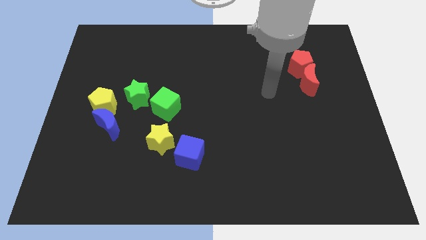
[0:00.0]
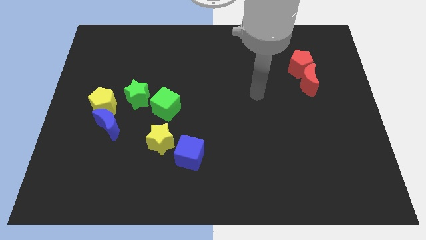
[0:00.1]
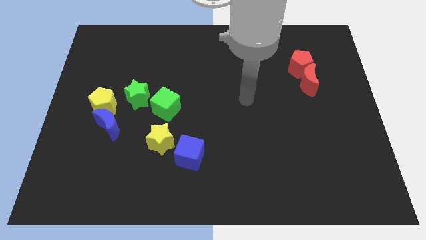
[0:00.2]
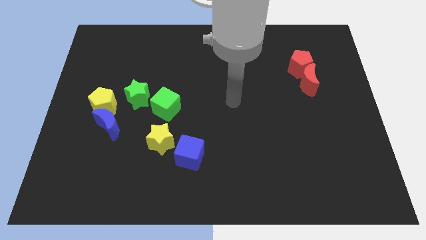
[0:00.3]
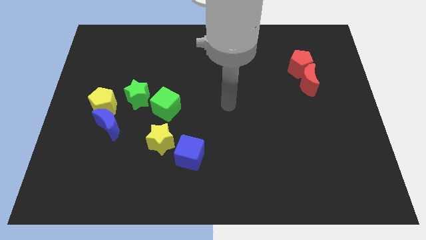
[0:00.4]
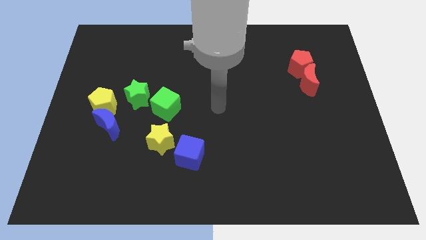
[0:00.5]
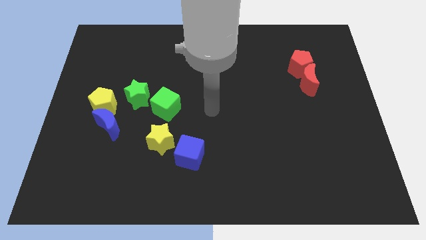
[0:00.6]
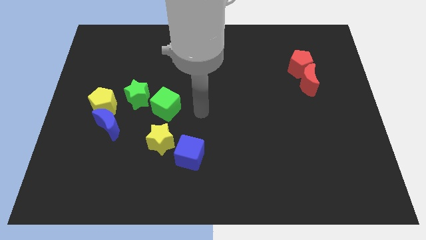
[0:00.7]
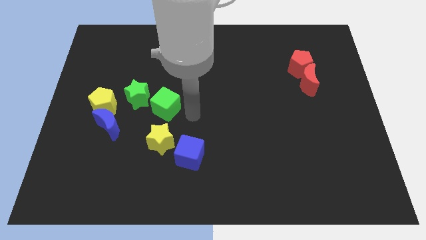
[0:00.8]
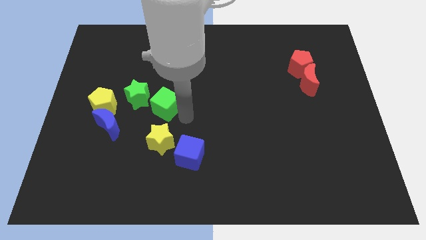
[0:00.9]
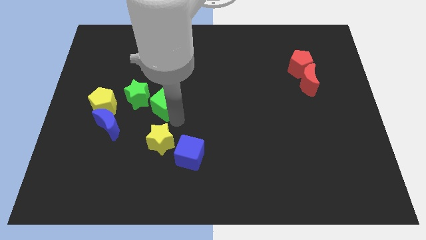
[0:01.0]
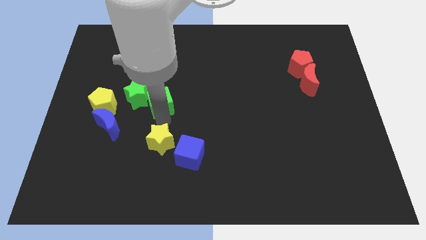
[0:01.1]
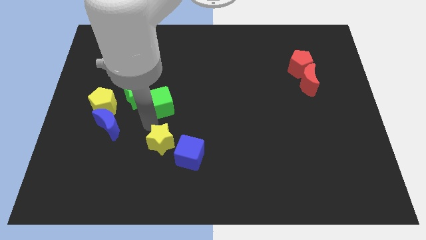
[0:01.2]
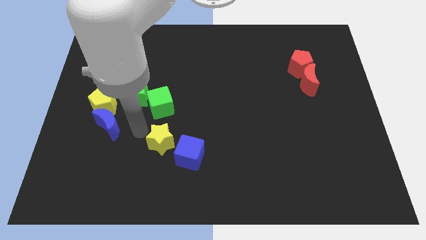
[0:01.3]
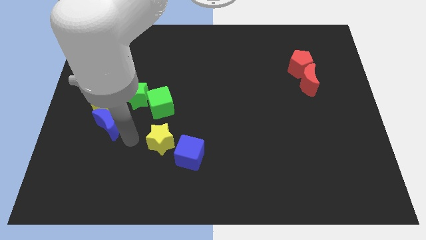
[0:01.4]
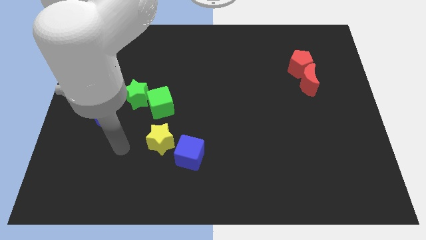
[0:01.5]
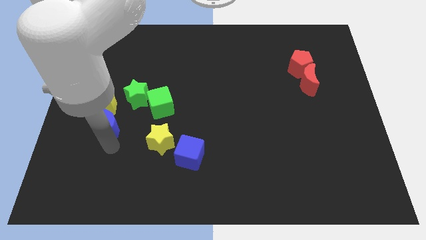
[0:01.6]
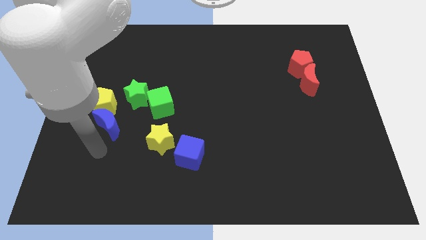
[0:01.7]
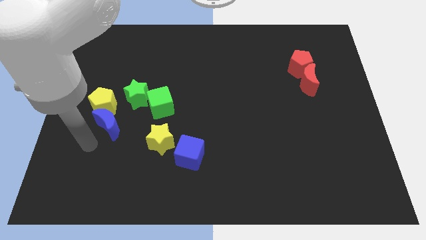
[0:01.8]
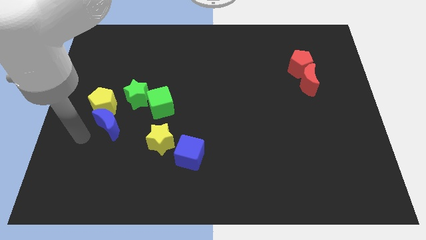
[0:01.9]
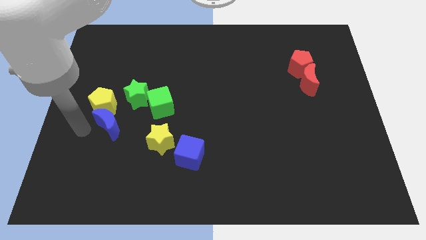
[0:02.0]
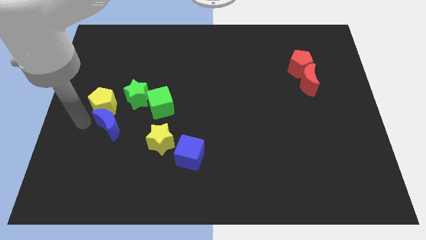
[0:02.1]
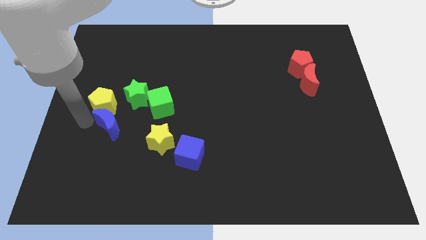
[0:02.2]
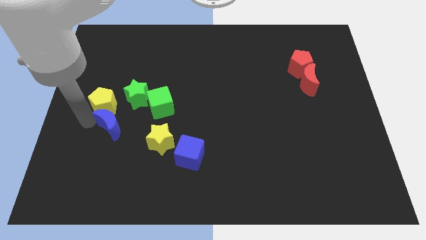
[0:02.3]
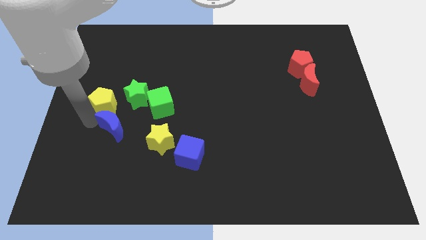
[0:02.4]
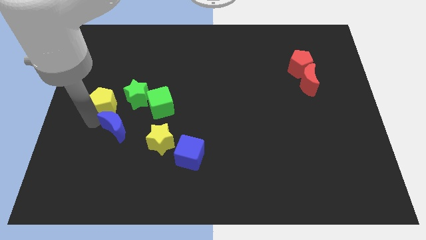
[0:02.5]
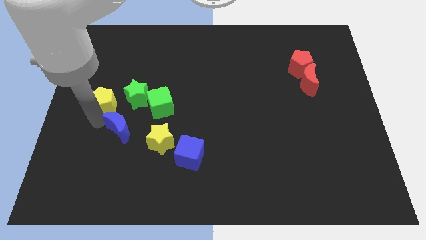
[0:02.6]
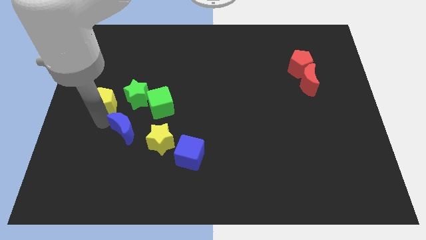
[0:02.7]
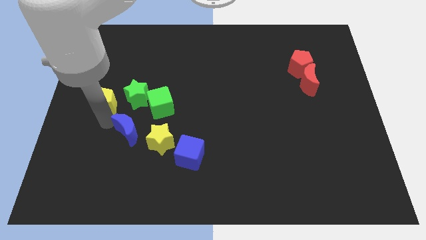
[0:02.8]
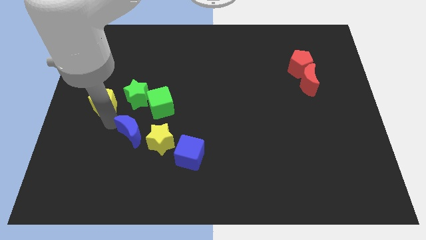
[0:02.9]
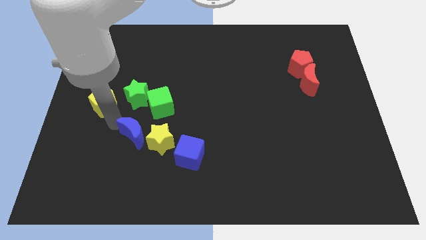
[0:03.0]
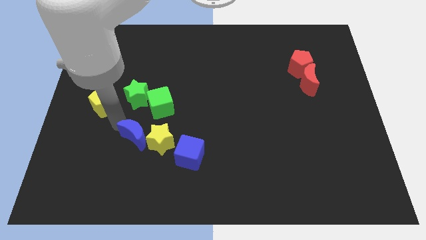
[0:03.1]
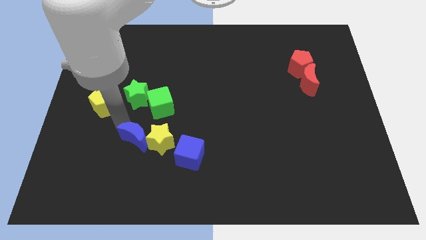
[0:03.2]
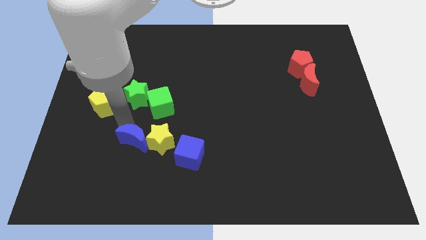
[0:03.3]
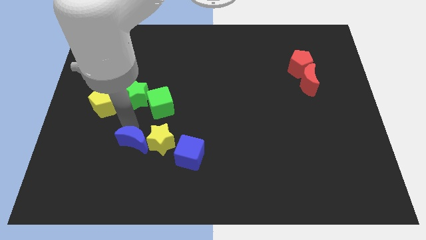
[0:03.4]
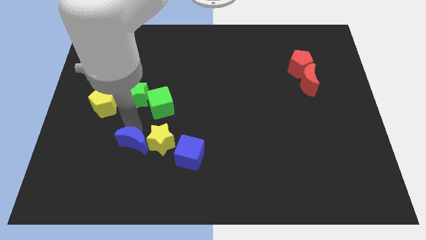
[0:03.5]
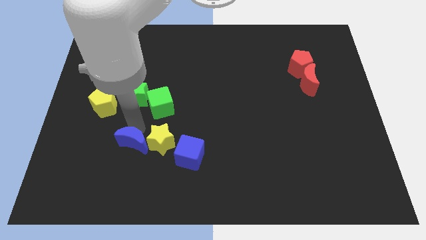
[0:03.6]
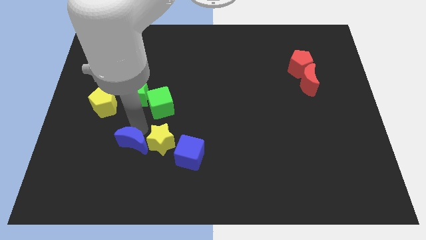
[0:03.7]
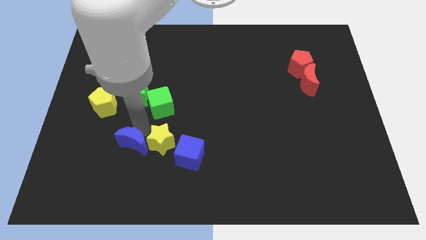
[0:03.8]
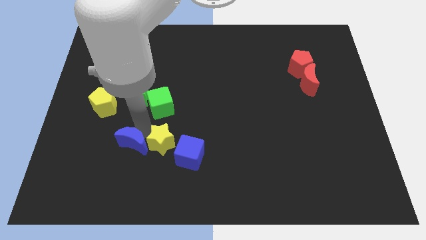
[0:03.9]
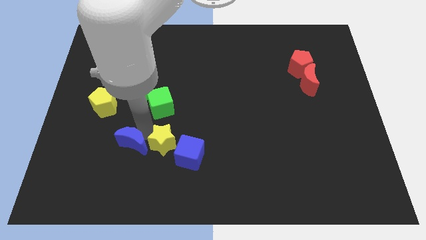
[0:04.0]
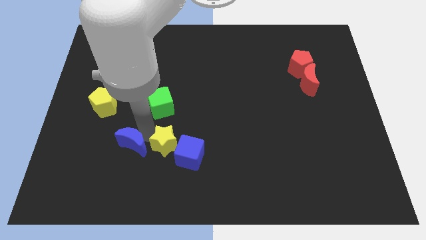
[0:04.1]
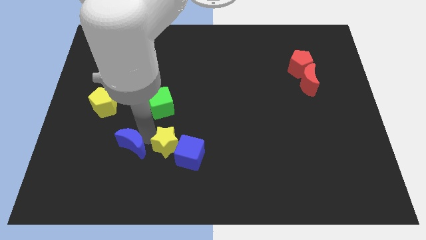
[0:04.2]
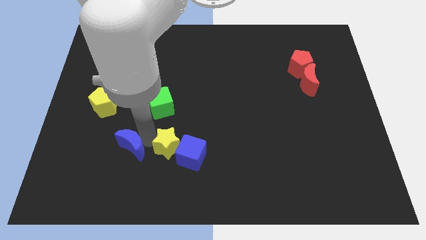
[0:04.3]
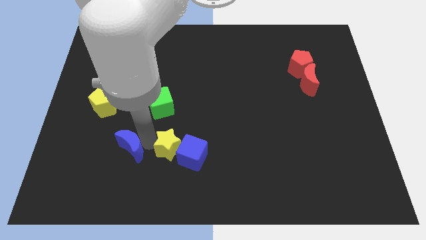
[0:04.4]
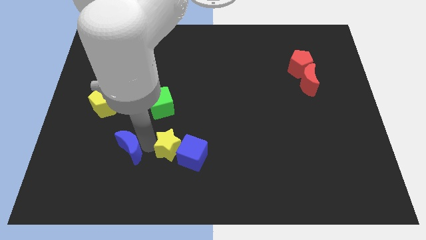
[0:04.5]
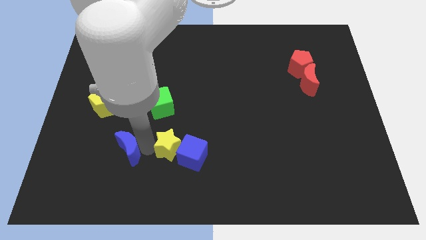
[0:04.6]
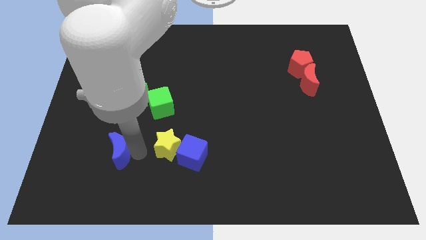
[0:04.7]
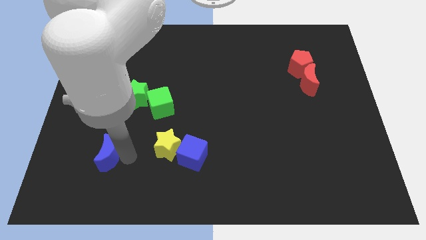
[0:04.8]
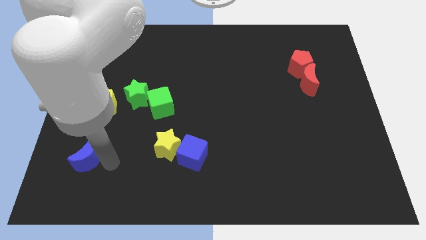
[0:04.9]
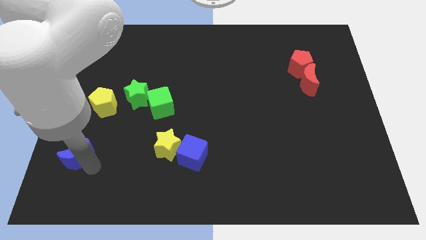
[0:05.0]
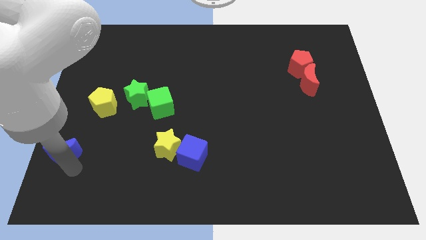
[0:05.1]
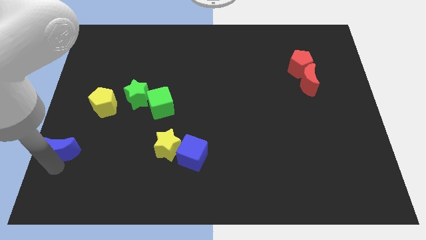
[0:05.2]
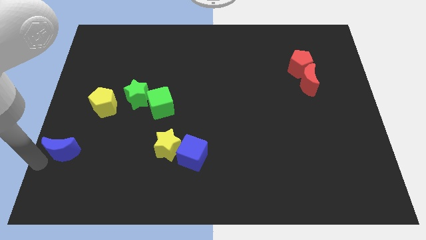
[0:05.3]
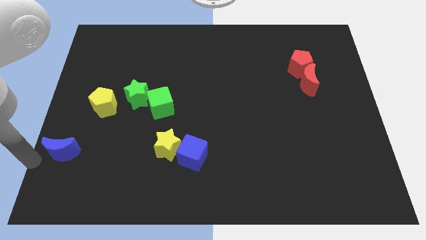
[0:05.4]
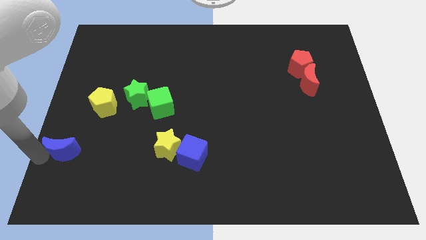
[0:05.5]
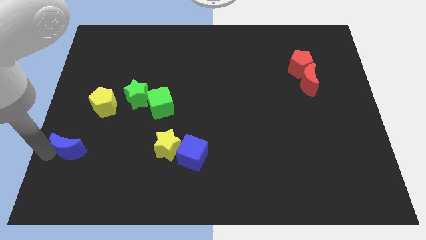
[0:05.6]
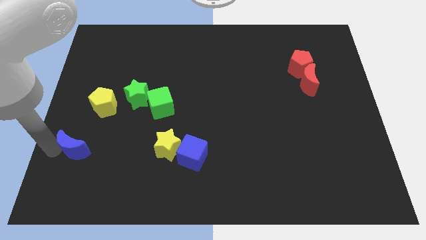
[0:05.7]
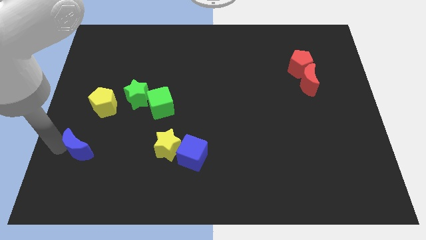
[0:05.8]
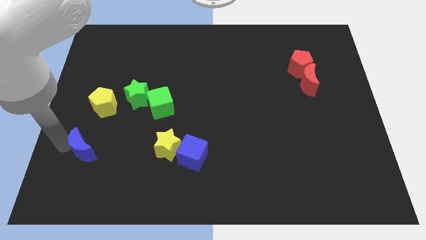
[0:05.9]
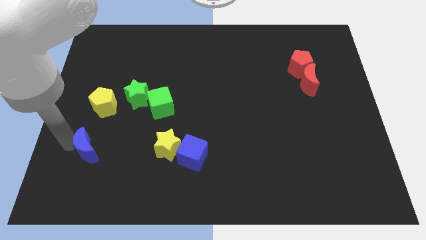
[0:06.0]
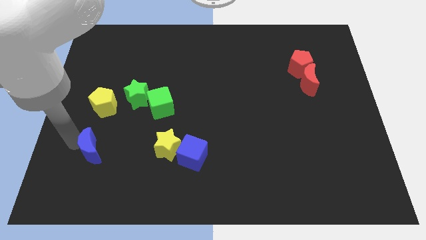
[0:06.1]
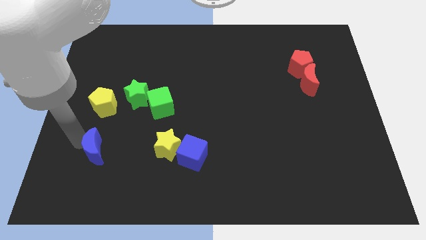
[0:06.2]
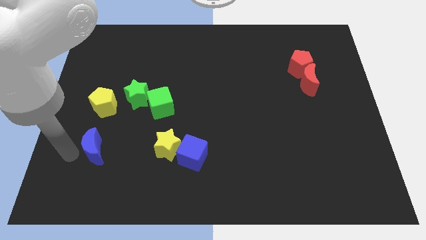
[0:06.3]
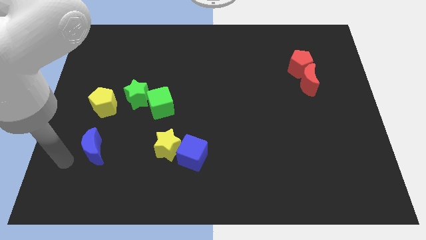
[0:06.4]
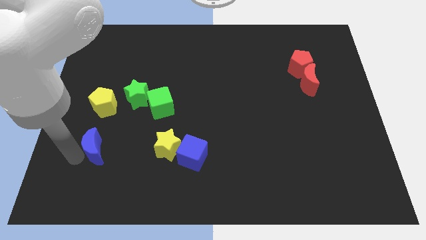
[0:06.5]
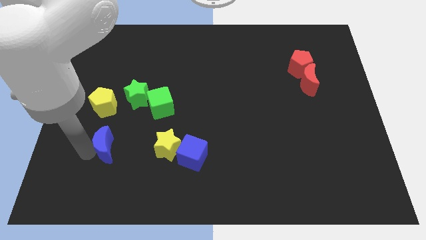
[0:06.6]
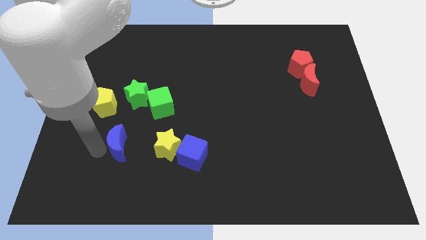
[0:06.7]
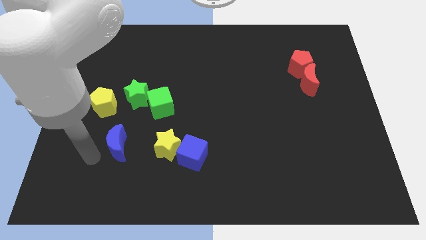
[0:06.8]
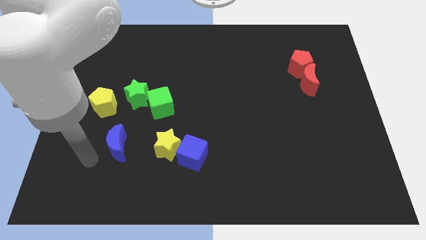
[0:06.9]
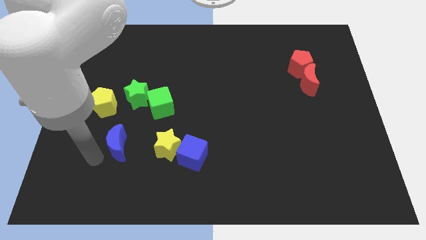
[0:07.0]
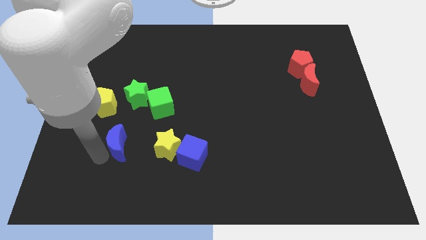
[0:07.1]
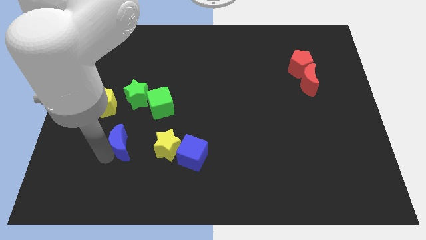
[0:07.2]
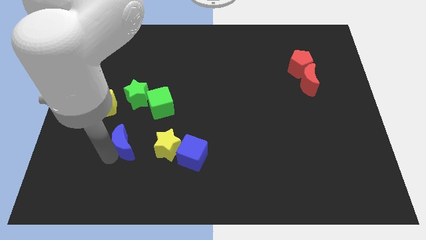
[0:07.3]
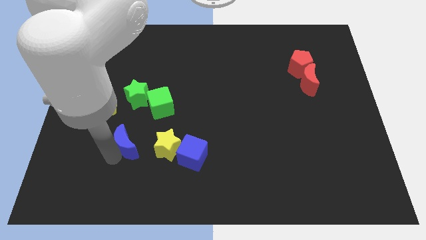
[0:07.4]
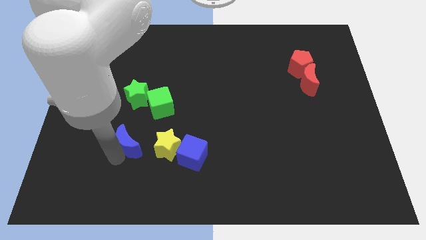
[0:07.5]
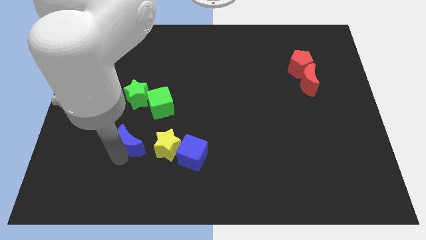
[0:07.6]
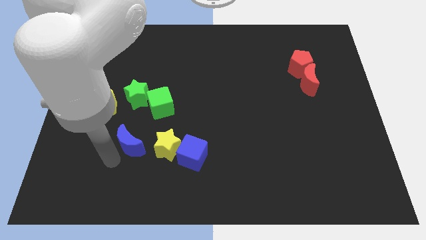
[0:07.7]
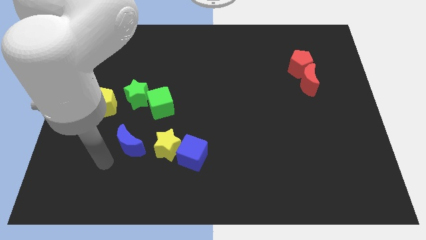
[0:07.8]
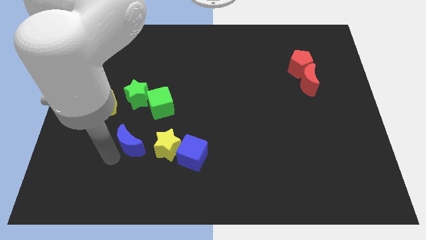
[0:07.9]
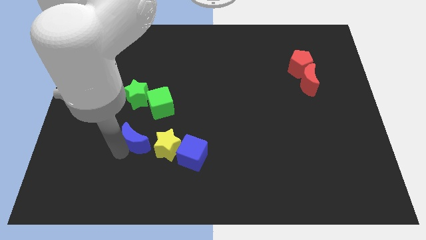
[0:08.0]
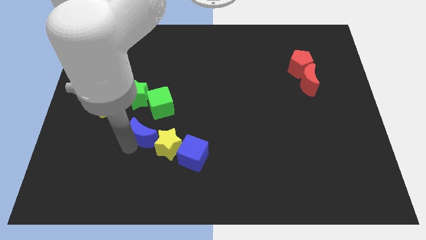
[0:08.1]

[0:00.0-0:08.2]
slightly slide the blue moon right
